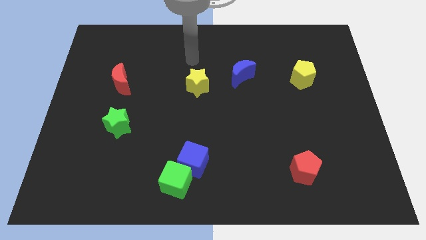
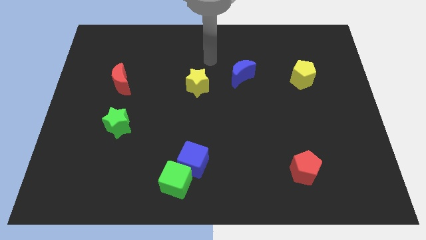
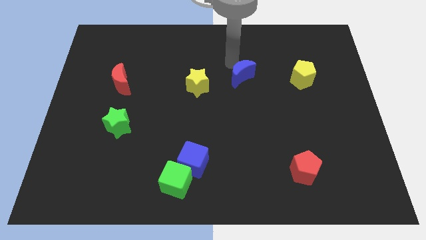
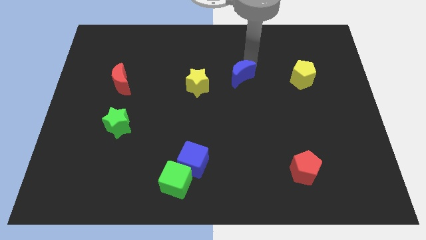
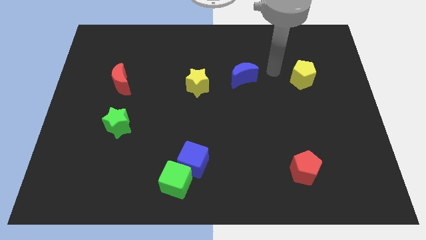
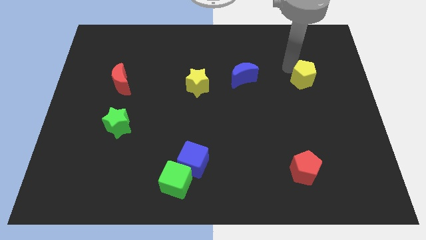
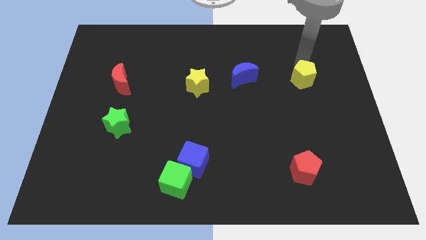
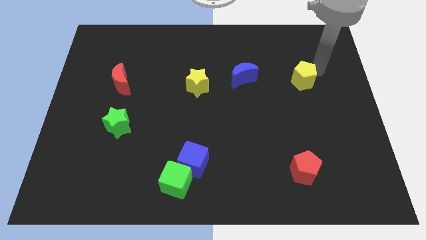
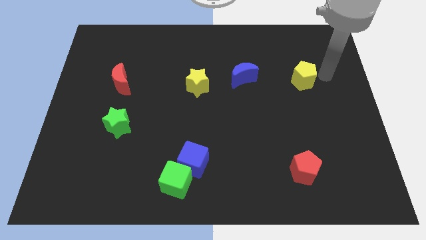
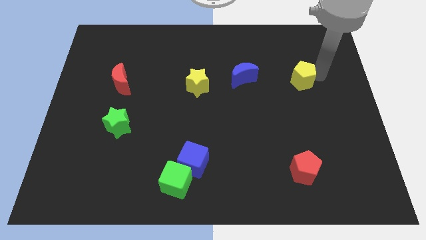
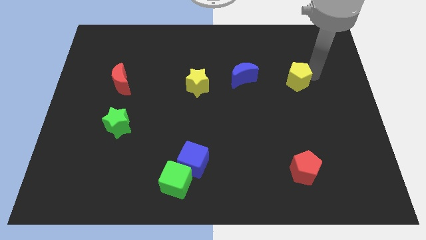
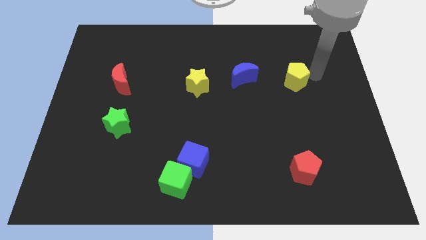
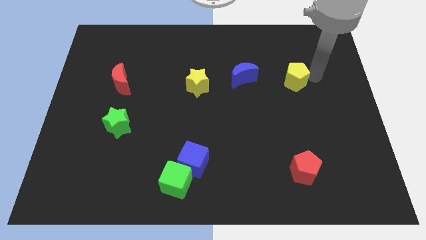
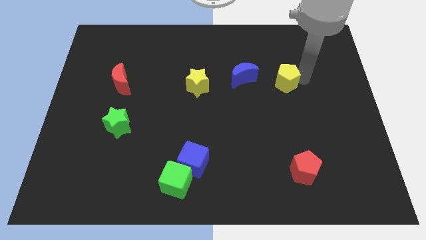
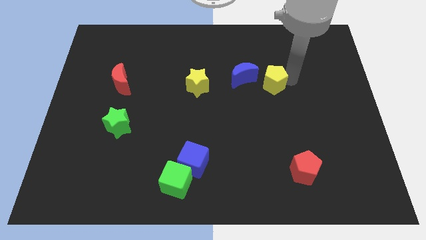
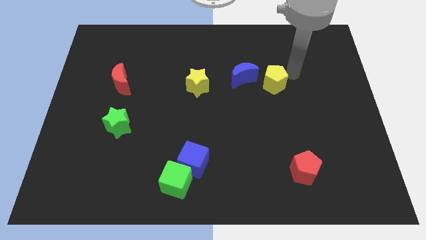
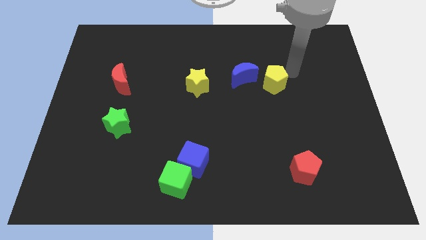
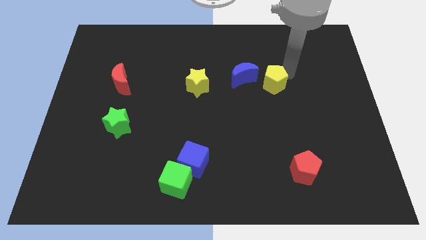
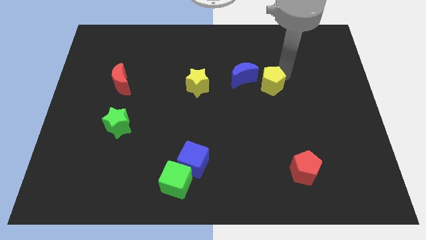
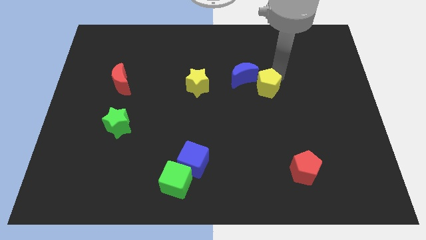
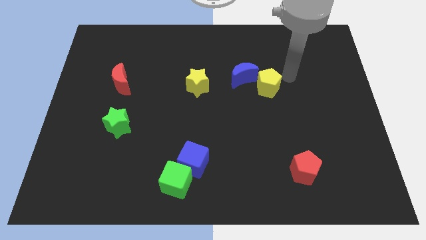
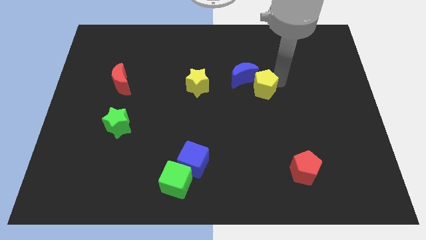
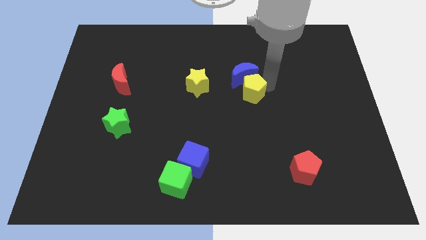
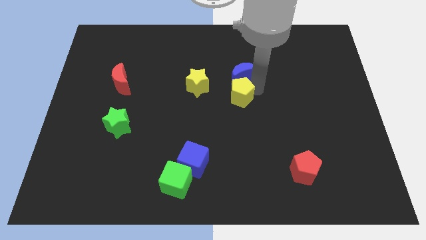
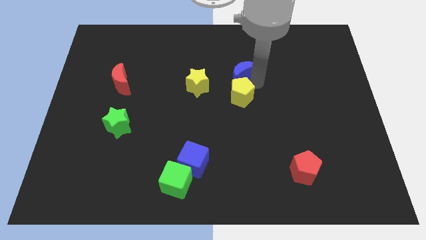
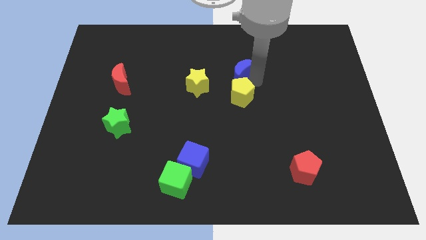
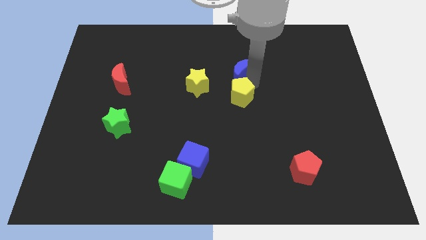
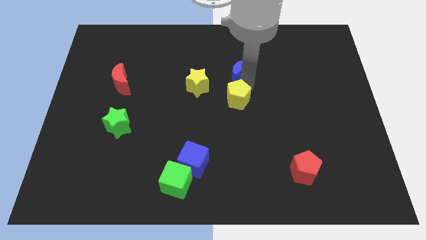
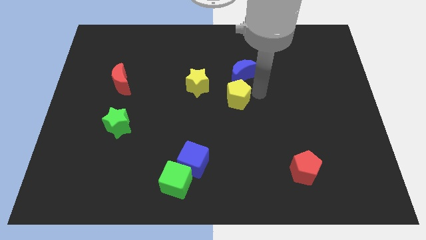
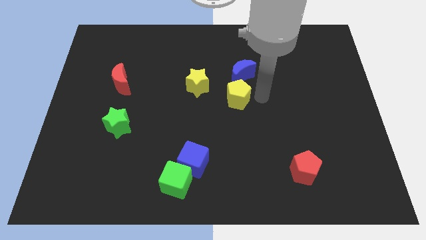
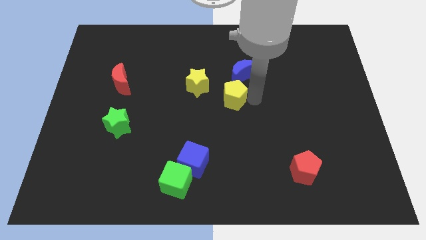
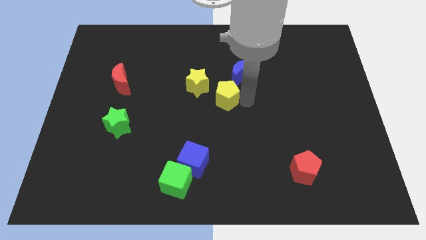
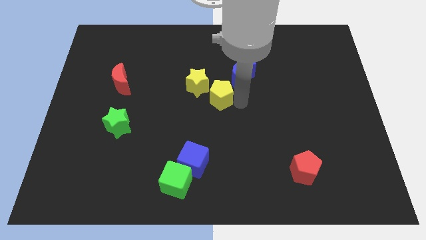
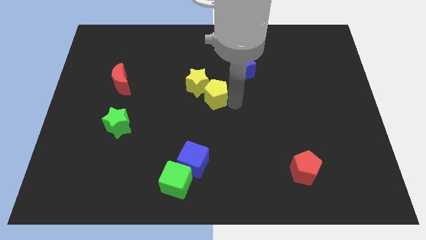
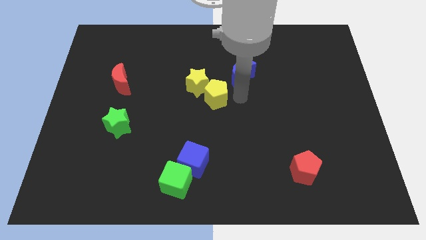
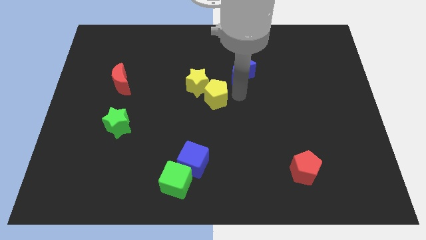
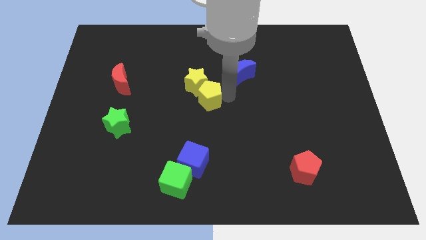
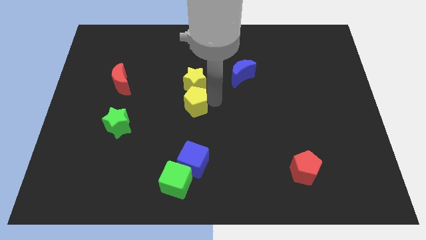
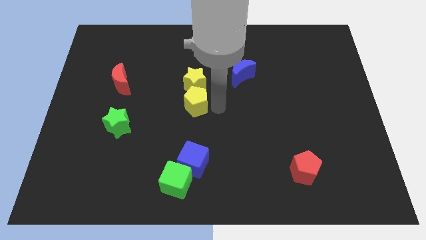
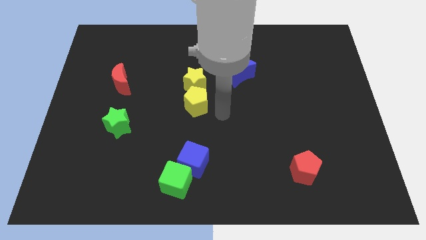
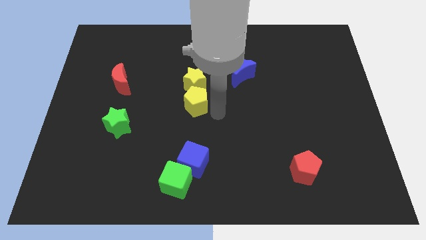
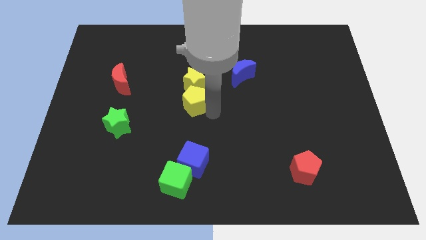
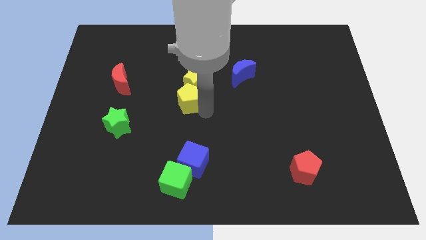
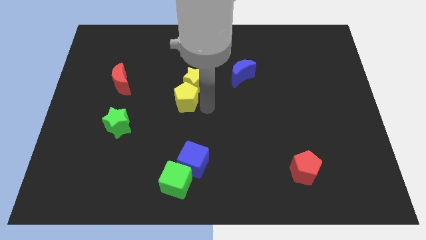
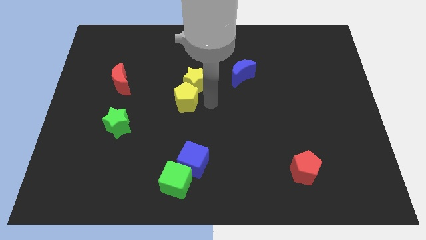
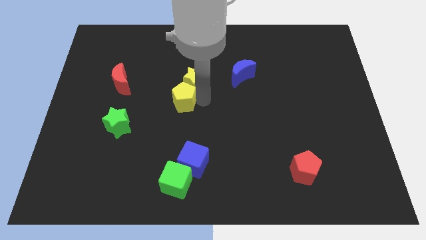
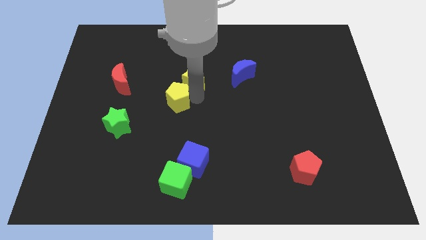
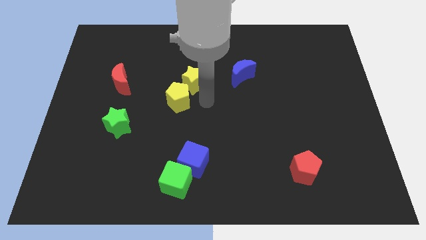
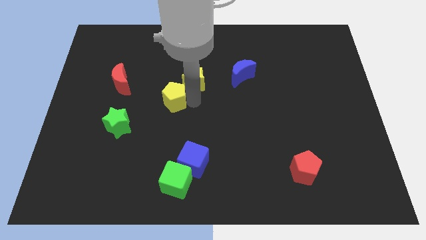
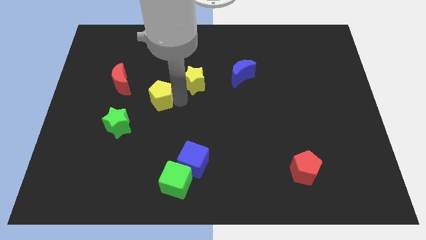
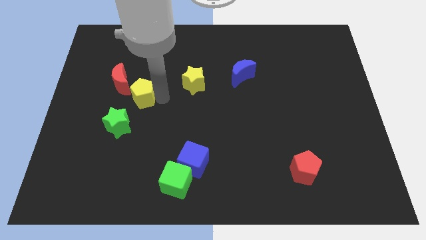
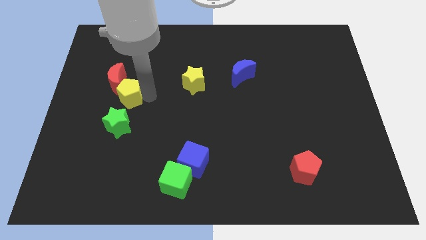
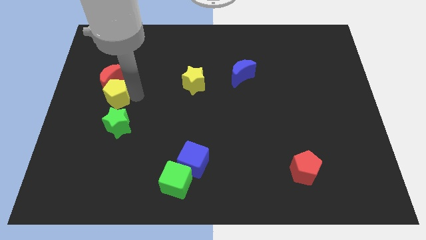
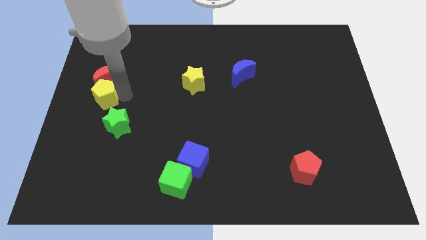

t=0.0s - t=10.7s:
slide the yellow pentagon to the left side

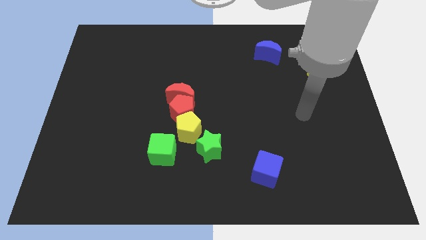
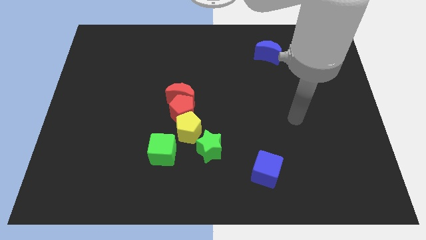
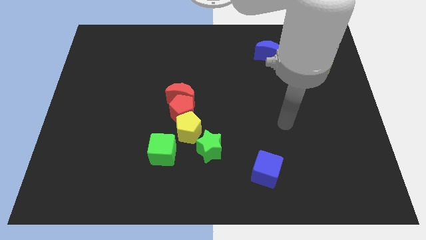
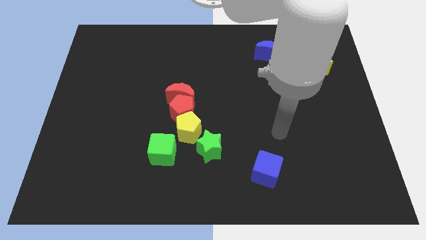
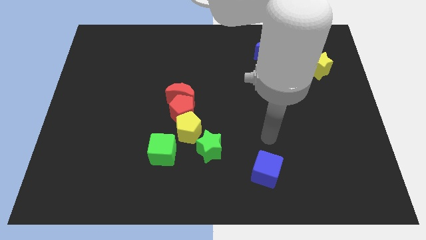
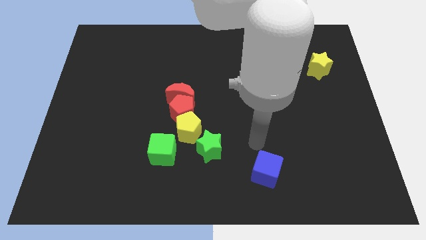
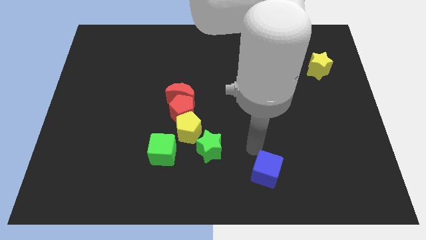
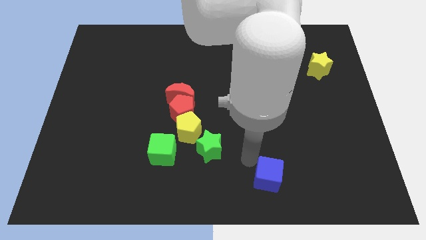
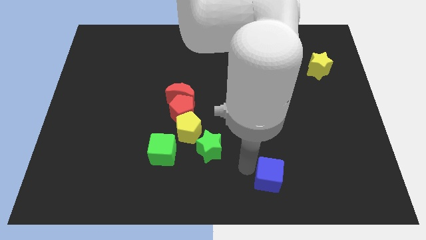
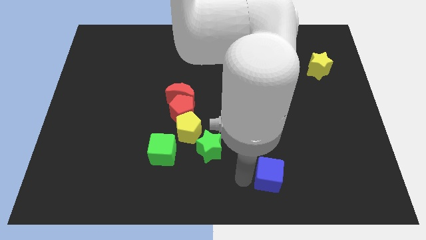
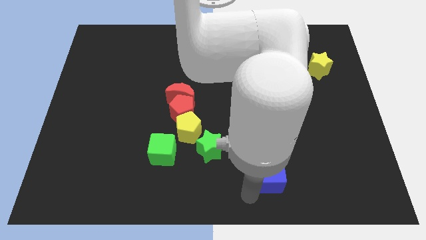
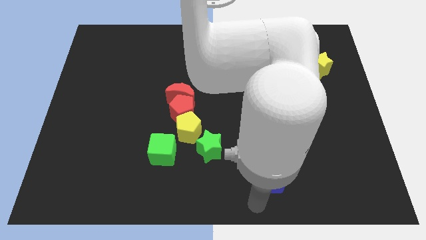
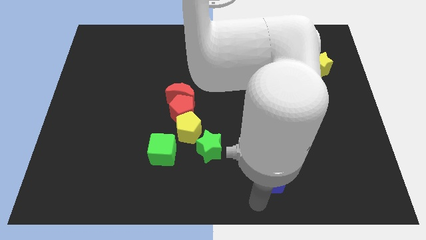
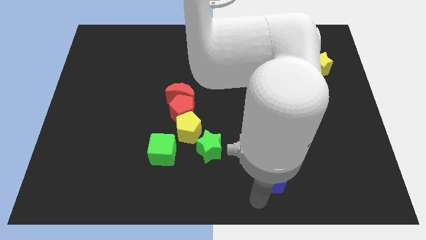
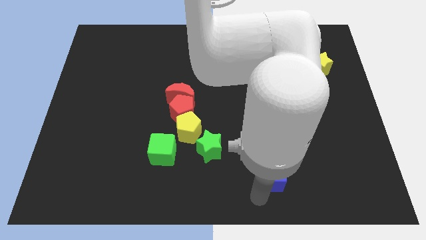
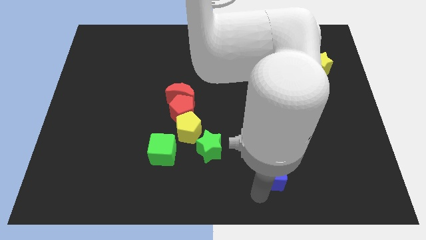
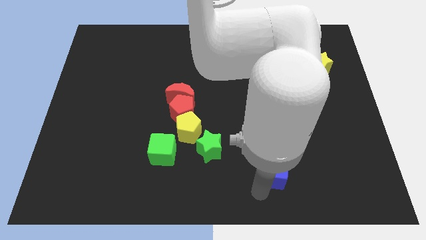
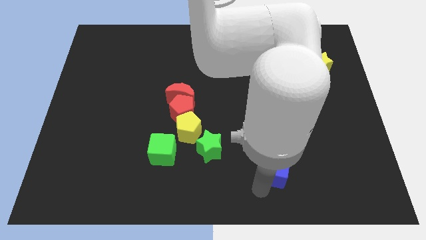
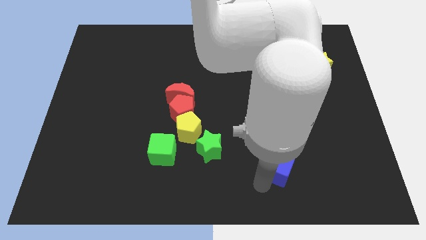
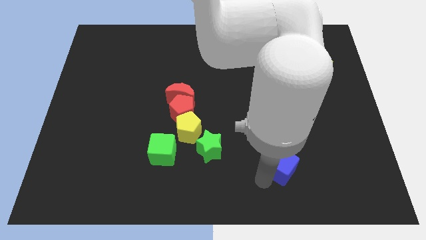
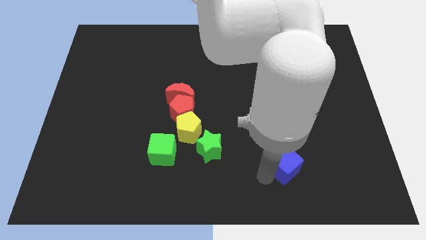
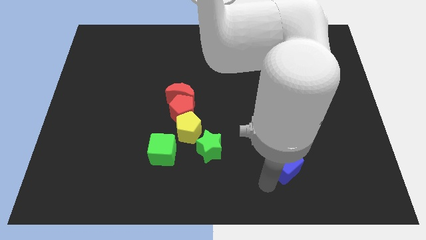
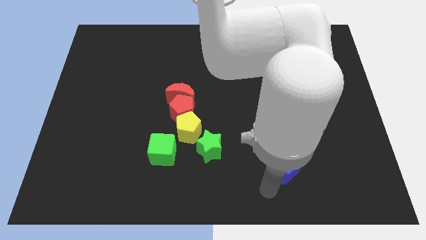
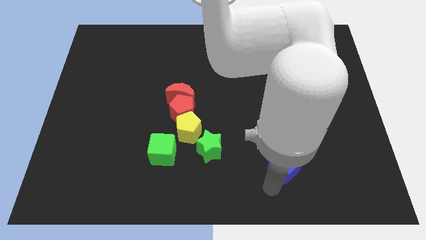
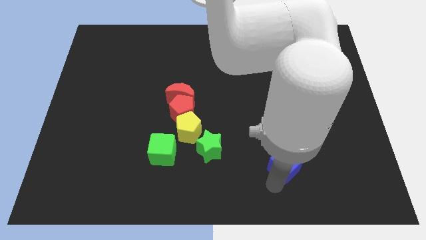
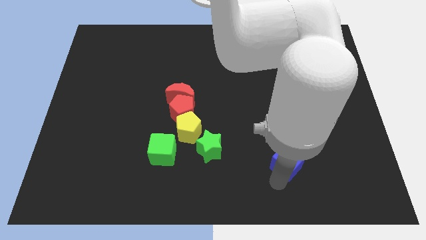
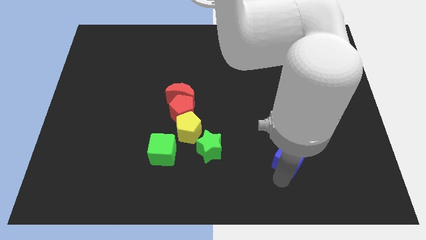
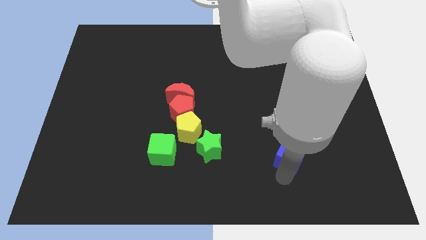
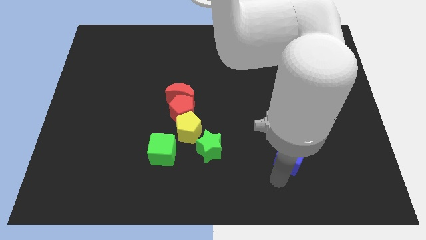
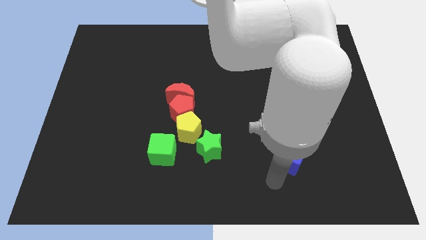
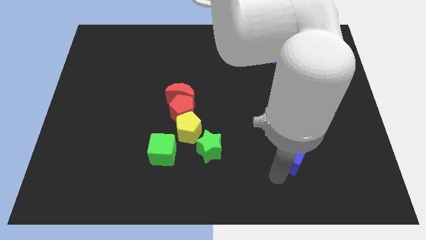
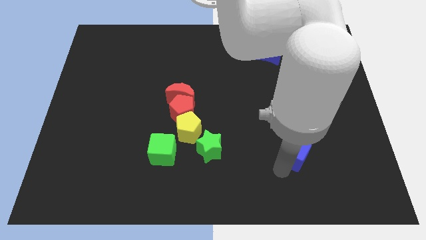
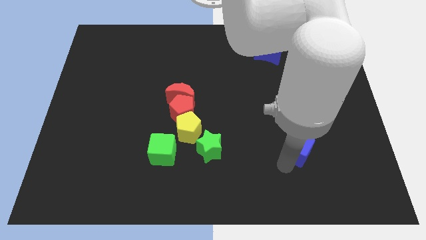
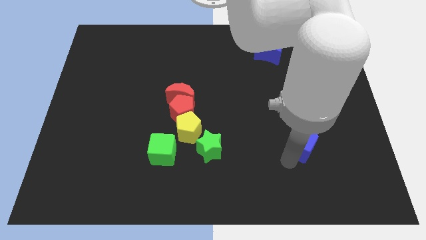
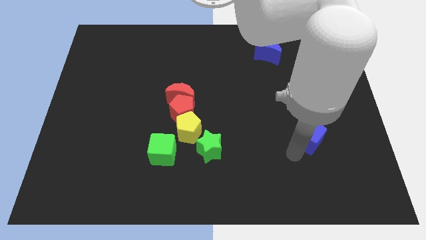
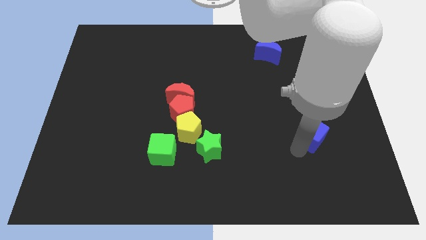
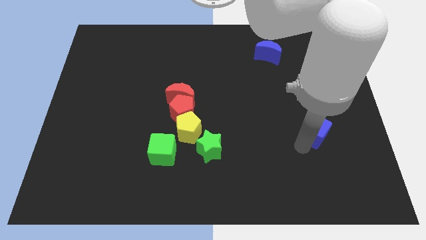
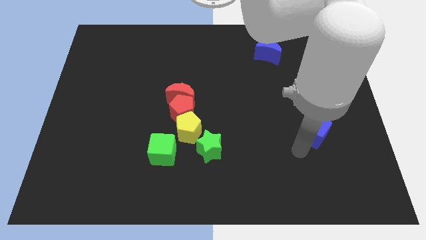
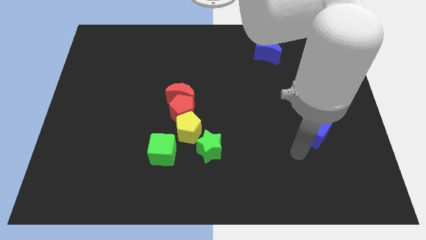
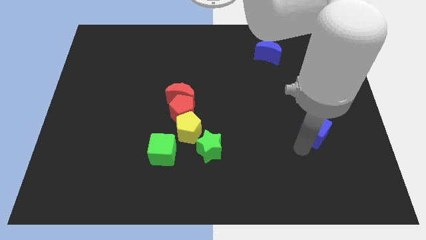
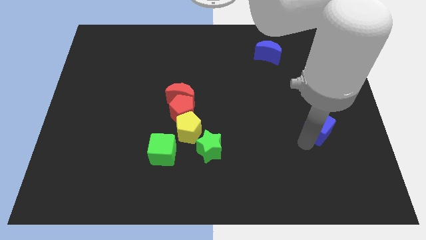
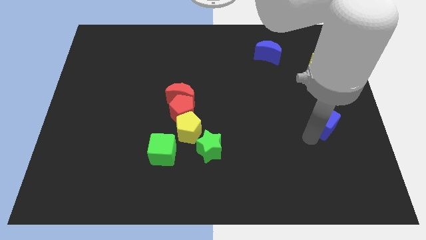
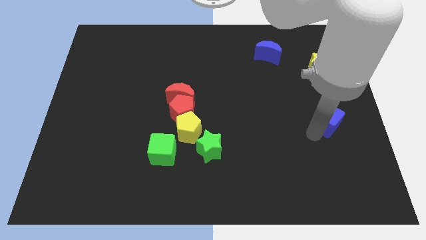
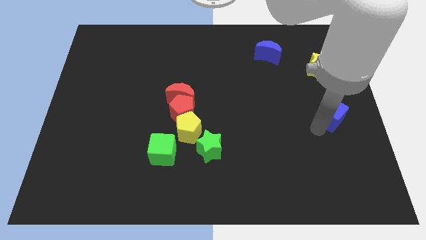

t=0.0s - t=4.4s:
slide the blue cube to the center right
